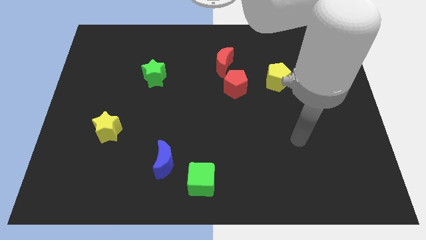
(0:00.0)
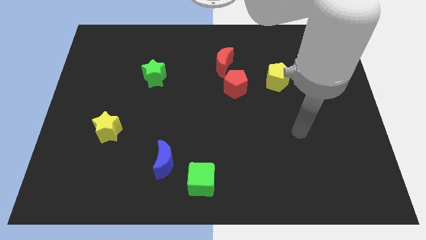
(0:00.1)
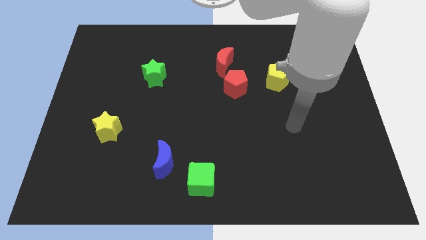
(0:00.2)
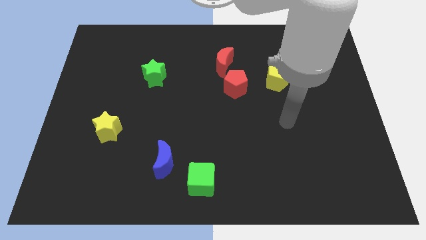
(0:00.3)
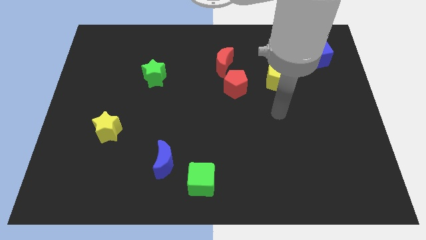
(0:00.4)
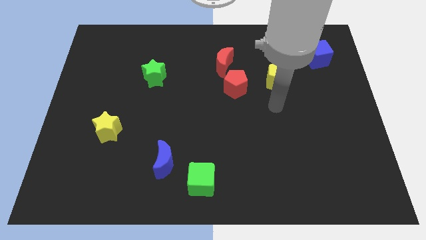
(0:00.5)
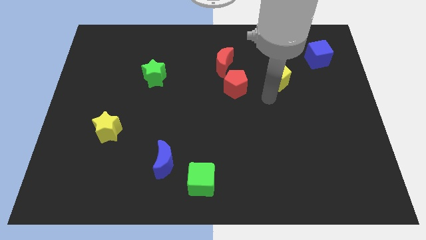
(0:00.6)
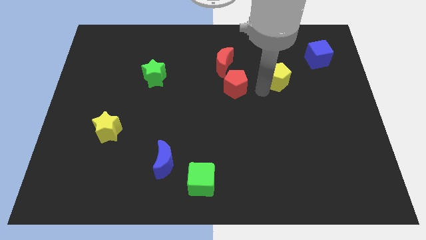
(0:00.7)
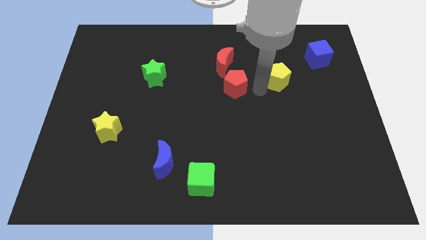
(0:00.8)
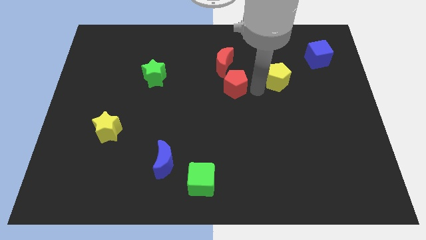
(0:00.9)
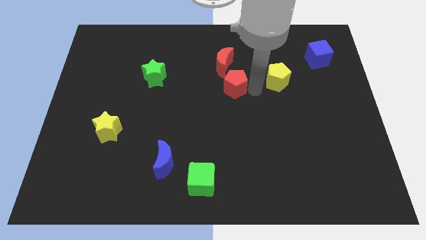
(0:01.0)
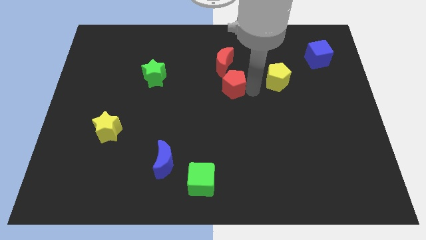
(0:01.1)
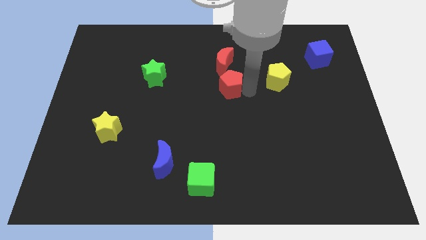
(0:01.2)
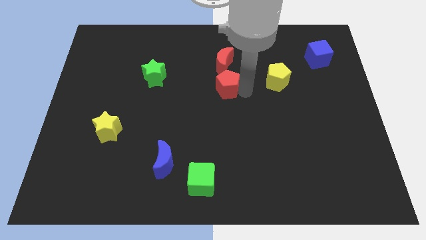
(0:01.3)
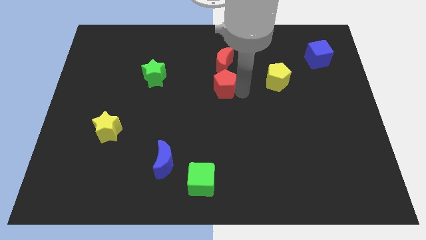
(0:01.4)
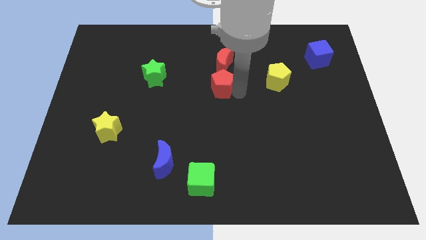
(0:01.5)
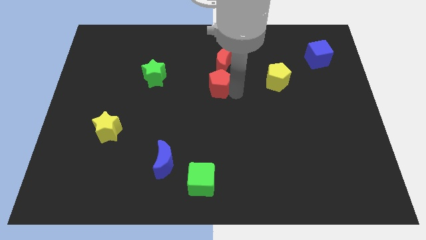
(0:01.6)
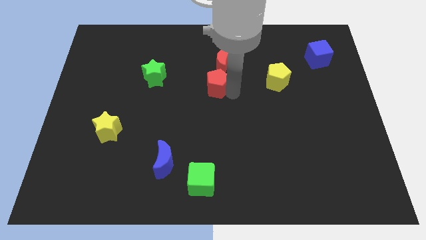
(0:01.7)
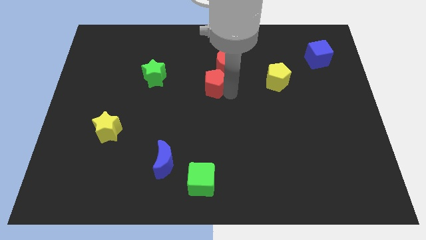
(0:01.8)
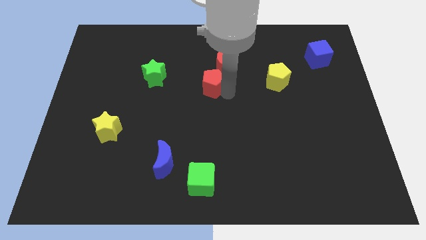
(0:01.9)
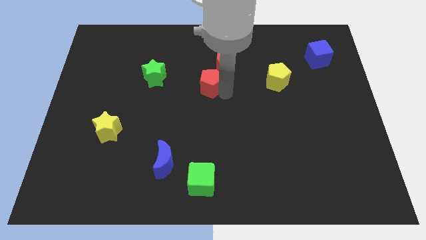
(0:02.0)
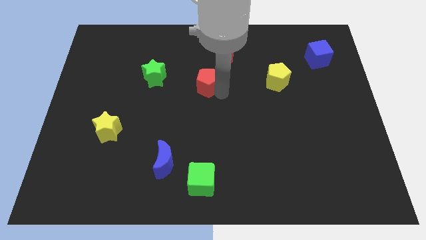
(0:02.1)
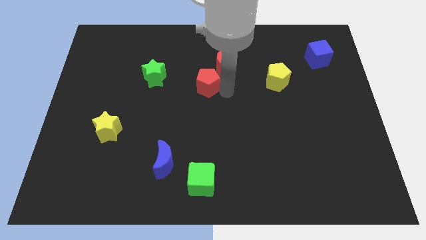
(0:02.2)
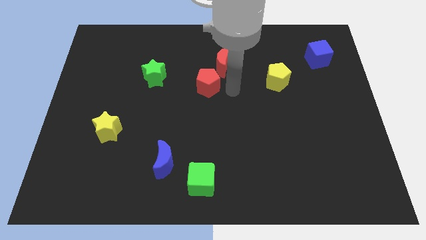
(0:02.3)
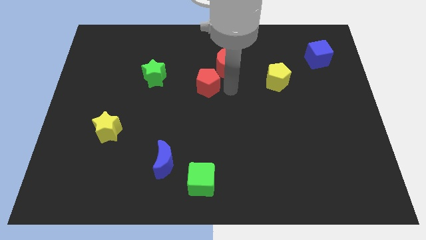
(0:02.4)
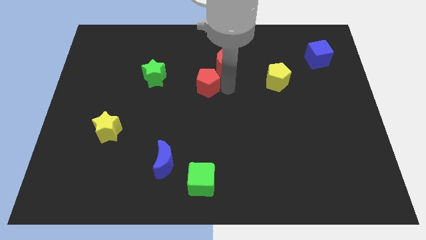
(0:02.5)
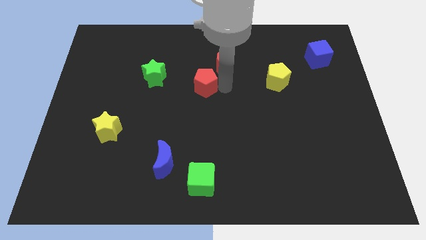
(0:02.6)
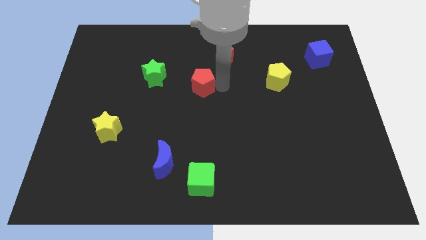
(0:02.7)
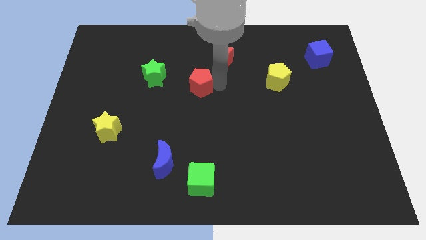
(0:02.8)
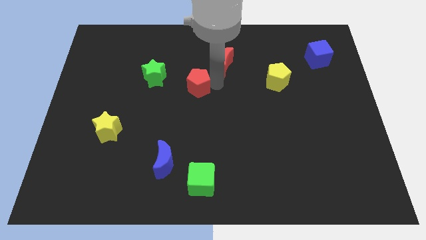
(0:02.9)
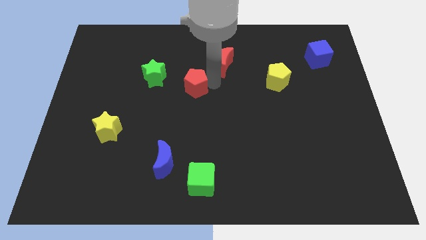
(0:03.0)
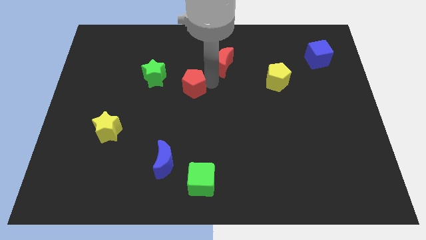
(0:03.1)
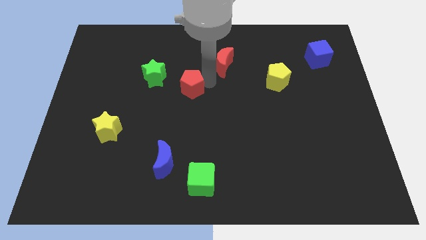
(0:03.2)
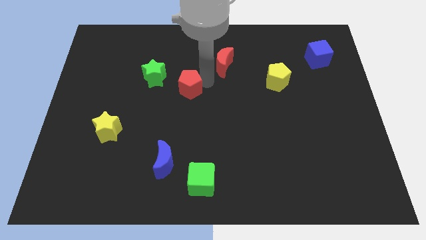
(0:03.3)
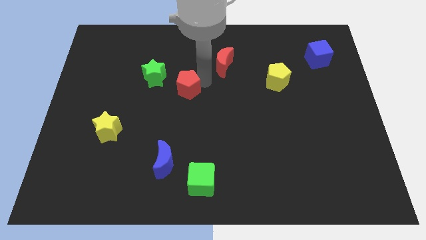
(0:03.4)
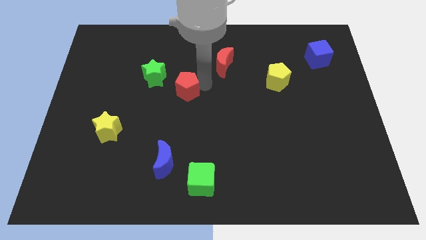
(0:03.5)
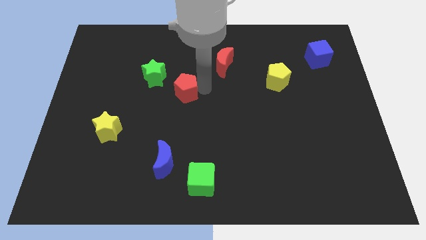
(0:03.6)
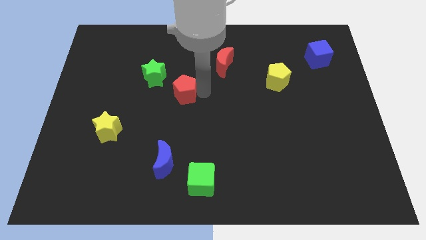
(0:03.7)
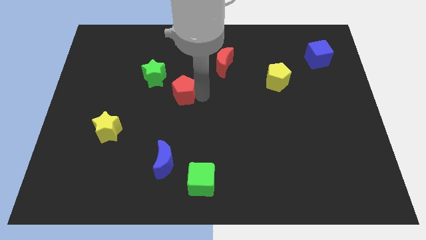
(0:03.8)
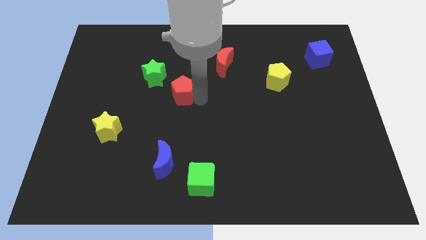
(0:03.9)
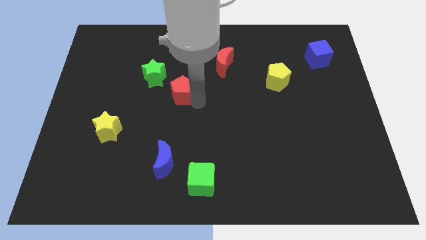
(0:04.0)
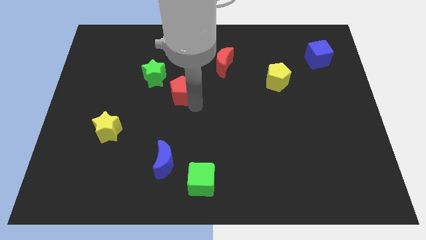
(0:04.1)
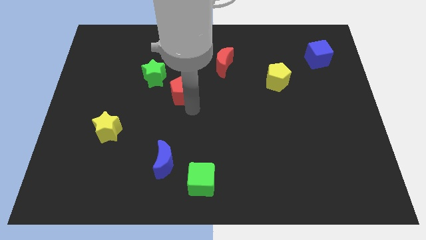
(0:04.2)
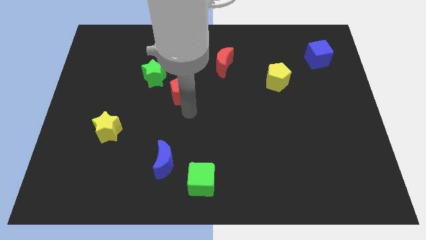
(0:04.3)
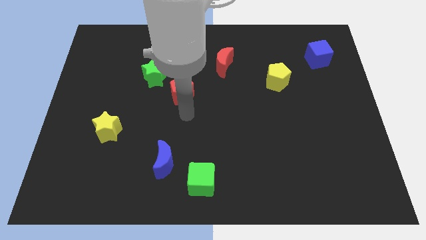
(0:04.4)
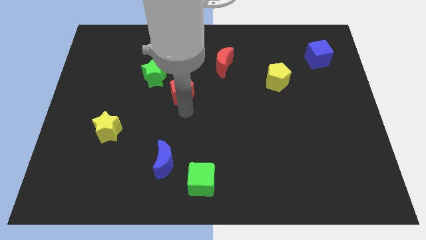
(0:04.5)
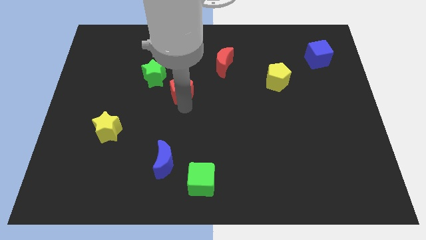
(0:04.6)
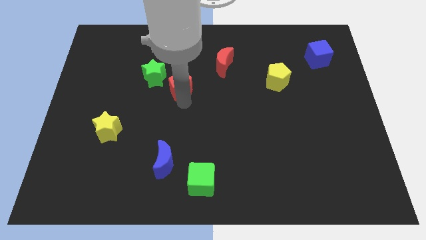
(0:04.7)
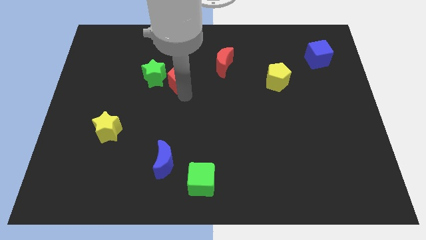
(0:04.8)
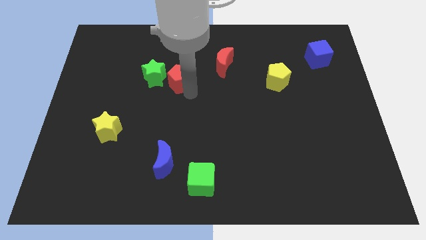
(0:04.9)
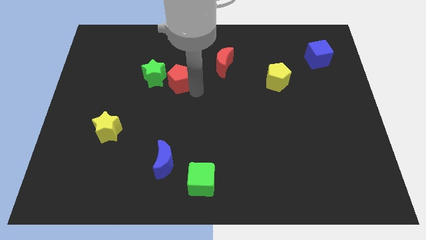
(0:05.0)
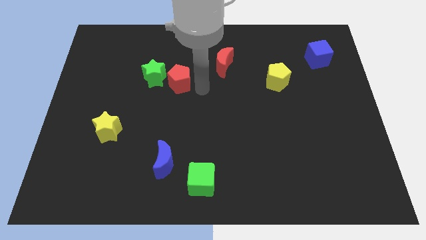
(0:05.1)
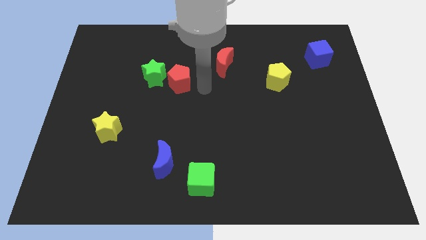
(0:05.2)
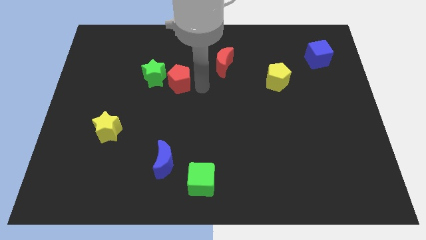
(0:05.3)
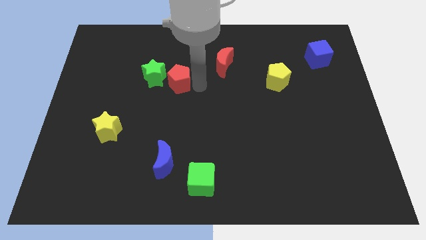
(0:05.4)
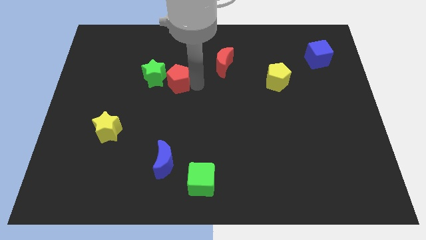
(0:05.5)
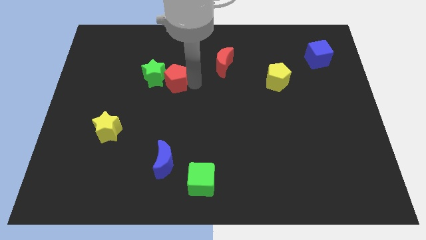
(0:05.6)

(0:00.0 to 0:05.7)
push the red pentagon close to the green star

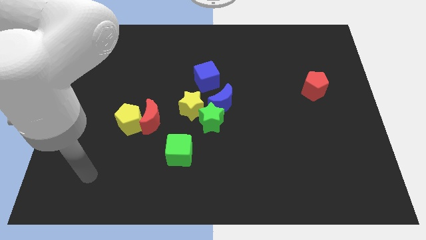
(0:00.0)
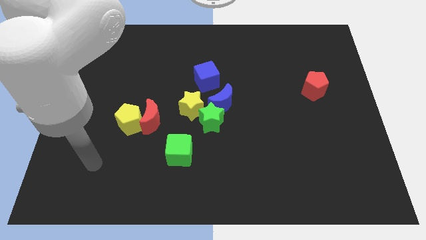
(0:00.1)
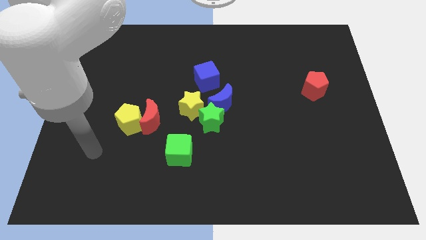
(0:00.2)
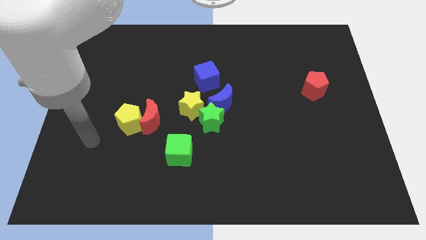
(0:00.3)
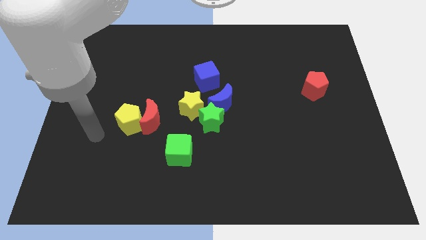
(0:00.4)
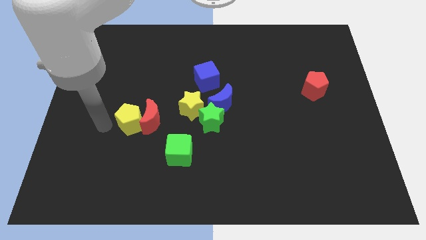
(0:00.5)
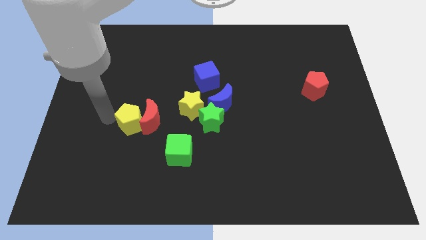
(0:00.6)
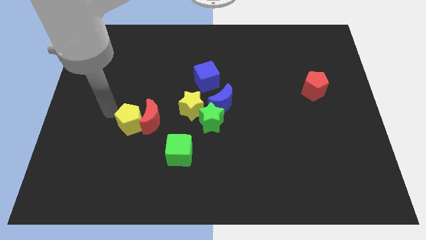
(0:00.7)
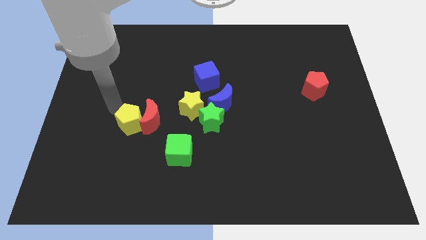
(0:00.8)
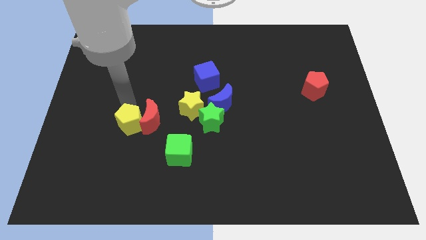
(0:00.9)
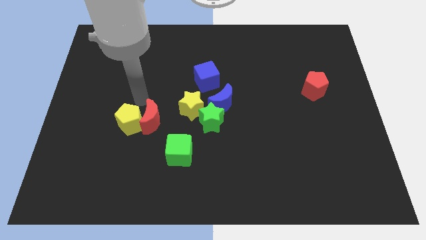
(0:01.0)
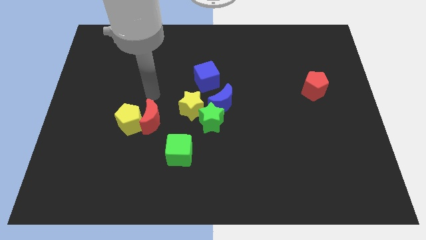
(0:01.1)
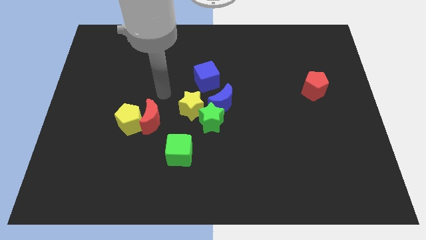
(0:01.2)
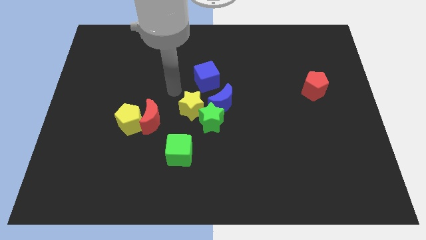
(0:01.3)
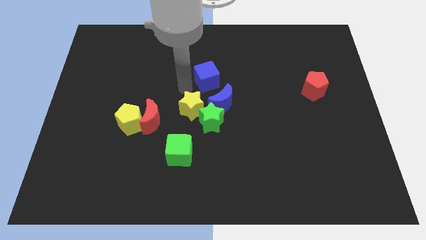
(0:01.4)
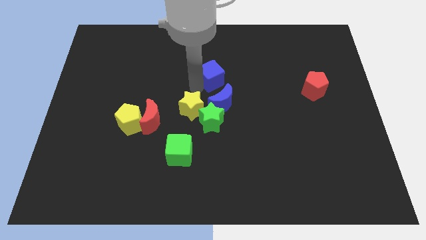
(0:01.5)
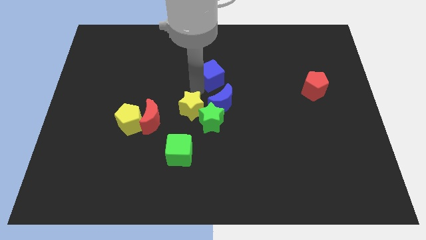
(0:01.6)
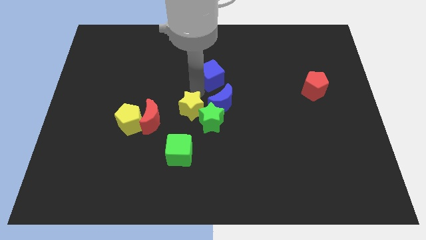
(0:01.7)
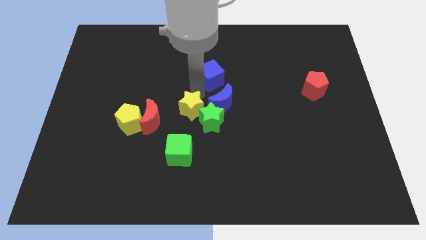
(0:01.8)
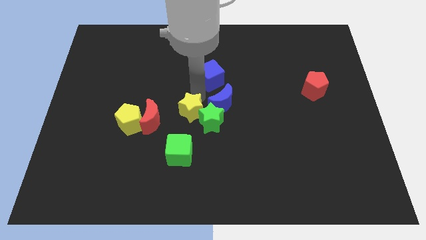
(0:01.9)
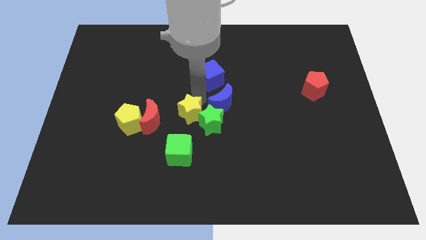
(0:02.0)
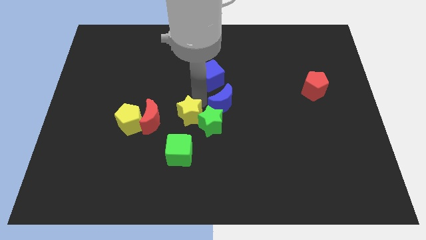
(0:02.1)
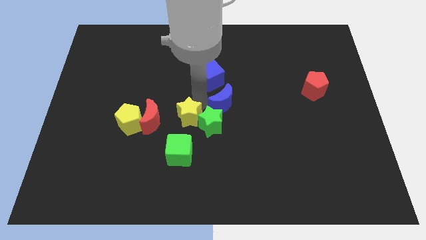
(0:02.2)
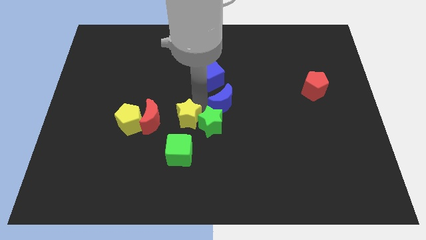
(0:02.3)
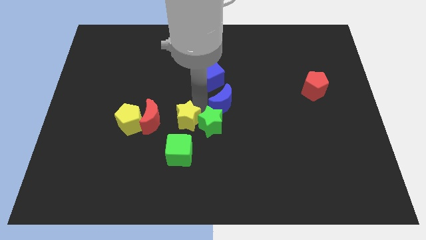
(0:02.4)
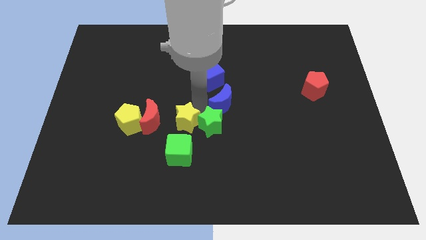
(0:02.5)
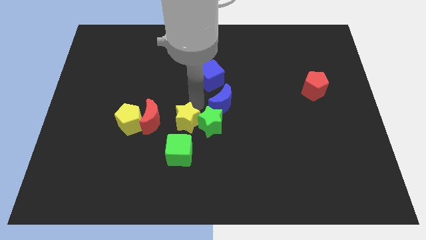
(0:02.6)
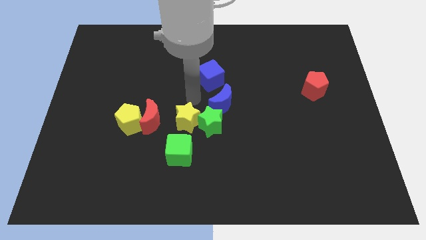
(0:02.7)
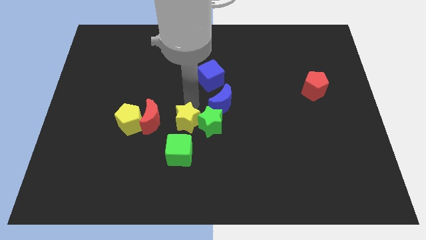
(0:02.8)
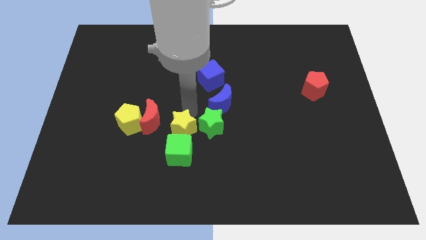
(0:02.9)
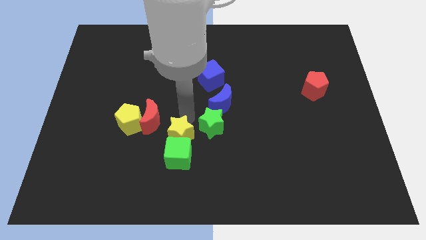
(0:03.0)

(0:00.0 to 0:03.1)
put the yellow star towards the green cube
